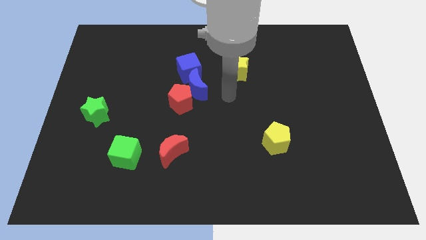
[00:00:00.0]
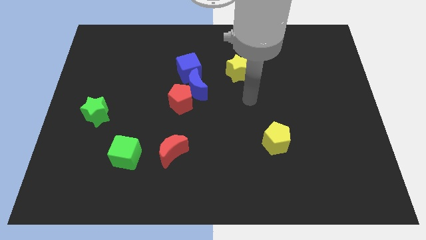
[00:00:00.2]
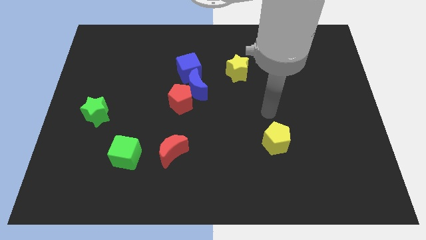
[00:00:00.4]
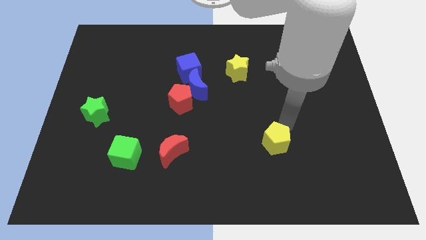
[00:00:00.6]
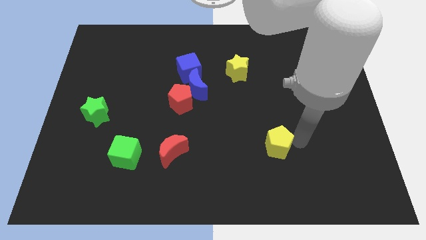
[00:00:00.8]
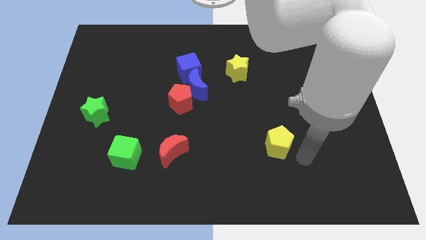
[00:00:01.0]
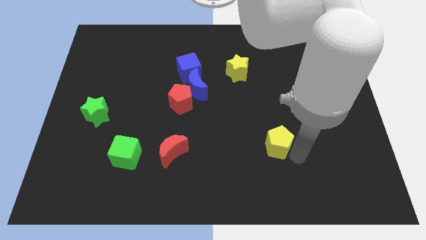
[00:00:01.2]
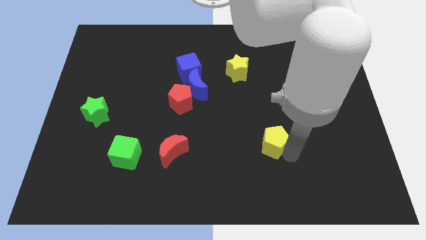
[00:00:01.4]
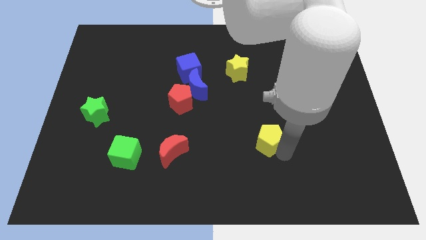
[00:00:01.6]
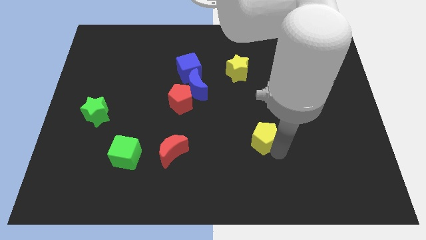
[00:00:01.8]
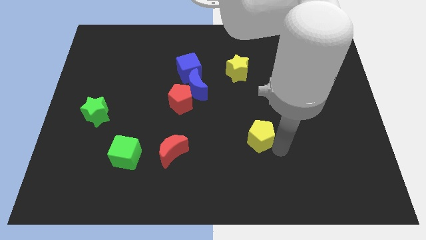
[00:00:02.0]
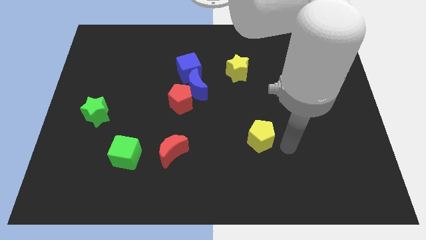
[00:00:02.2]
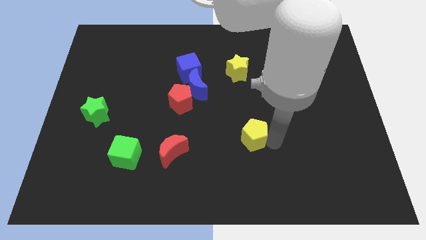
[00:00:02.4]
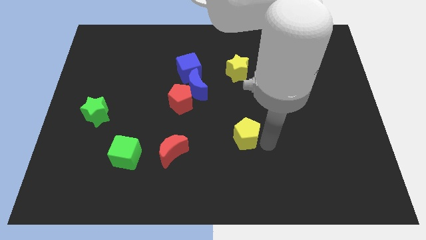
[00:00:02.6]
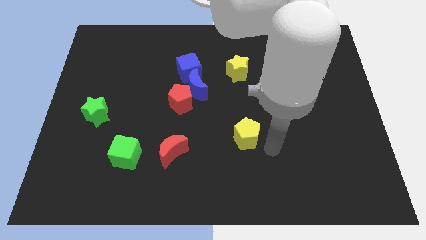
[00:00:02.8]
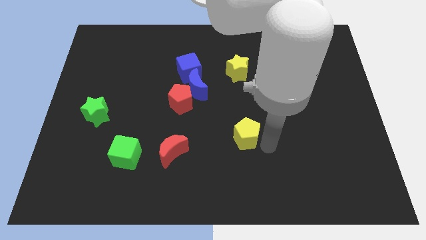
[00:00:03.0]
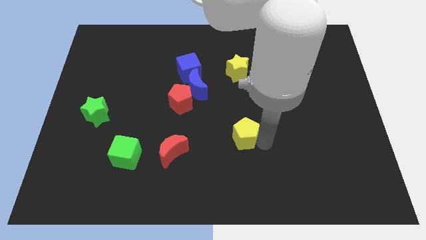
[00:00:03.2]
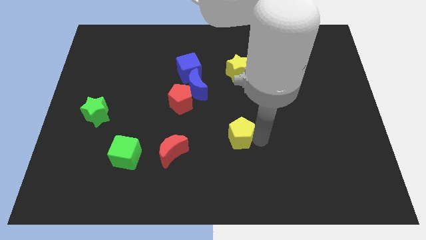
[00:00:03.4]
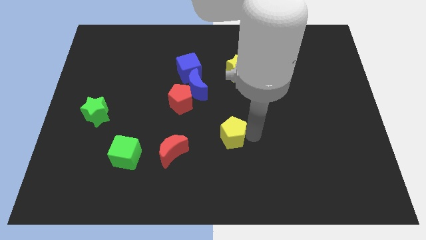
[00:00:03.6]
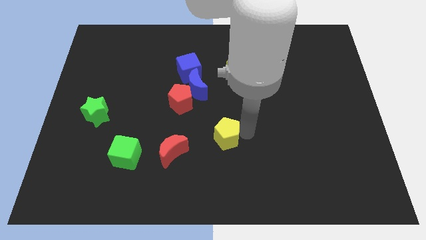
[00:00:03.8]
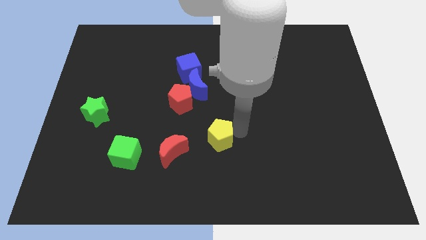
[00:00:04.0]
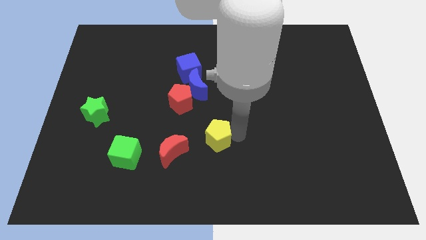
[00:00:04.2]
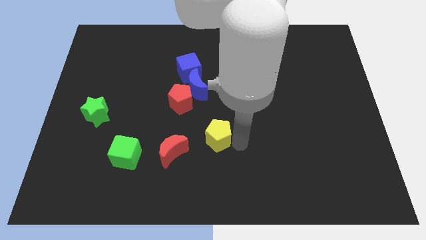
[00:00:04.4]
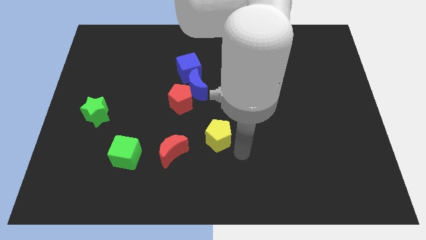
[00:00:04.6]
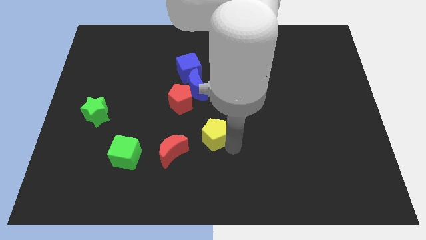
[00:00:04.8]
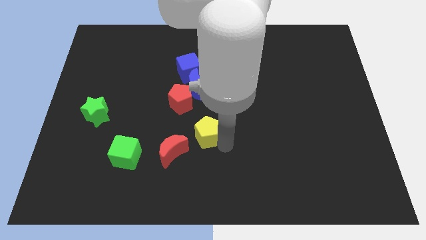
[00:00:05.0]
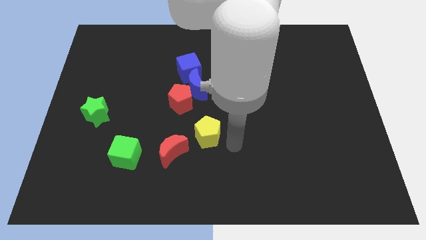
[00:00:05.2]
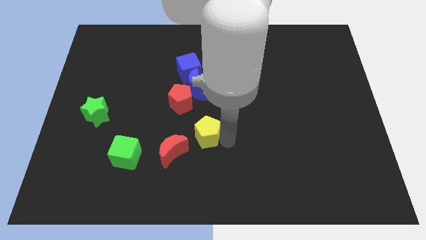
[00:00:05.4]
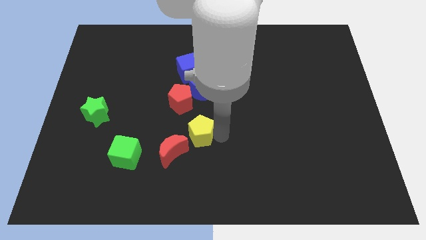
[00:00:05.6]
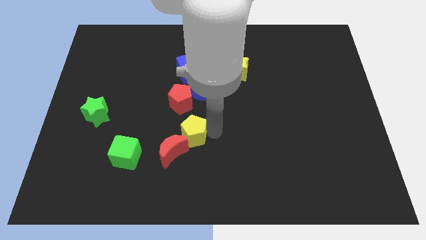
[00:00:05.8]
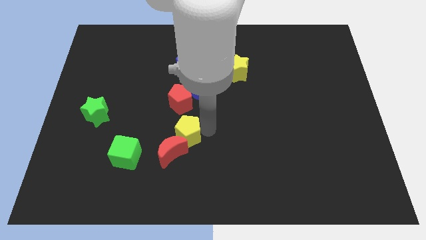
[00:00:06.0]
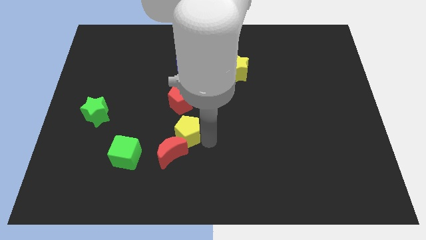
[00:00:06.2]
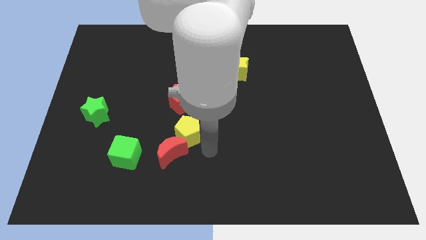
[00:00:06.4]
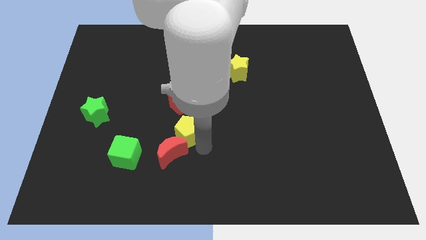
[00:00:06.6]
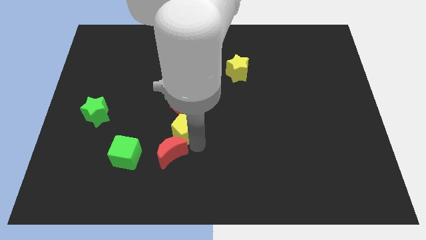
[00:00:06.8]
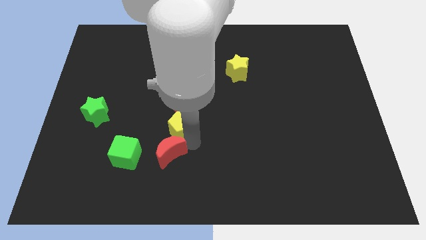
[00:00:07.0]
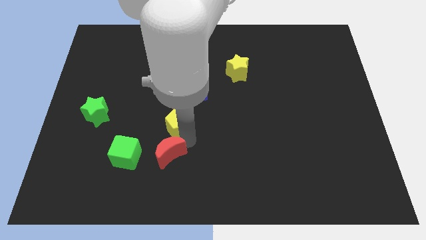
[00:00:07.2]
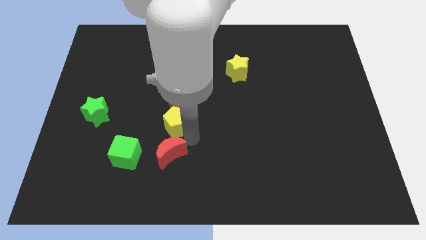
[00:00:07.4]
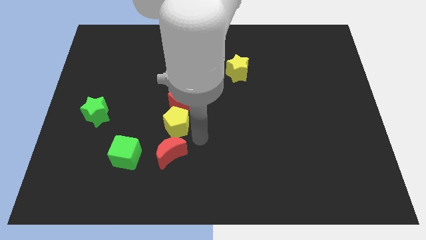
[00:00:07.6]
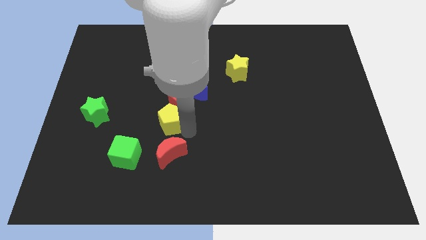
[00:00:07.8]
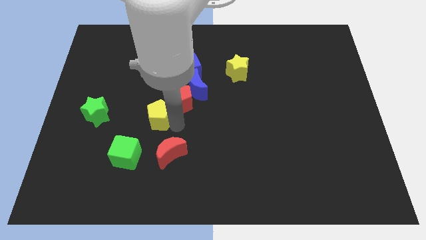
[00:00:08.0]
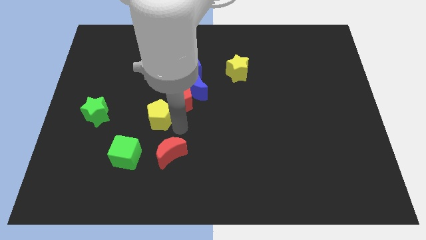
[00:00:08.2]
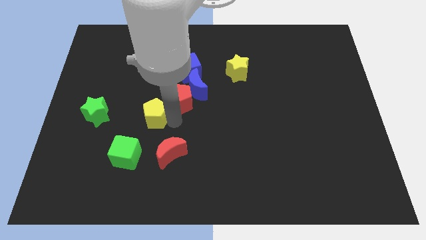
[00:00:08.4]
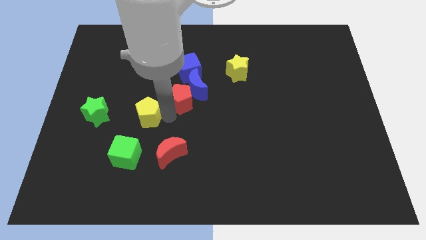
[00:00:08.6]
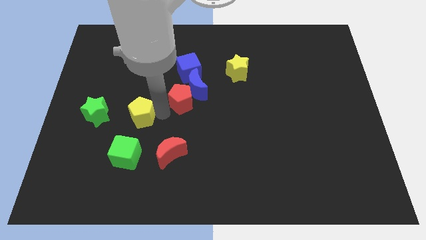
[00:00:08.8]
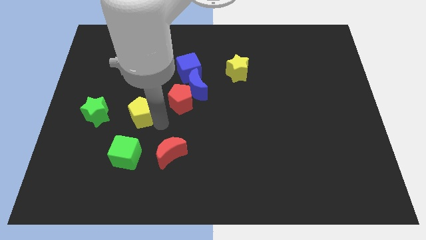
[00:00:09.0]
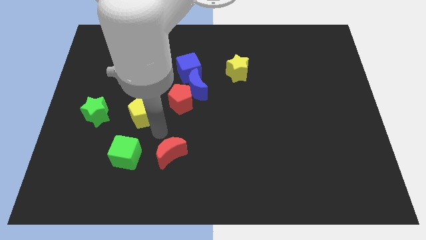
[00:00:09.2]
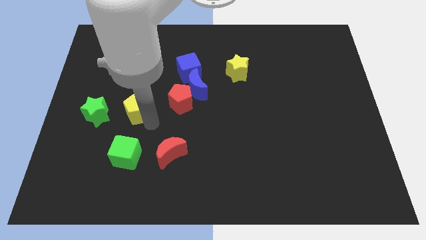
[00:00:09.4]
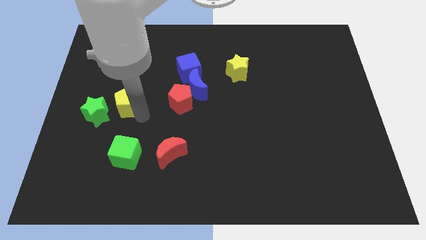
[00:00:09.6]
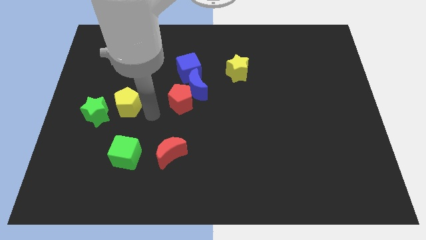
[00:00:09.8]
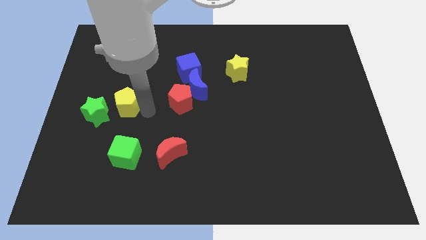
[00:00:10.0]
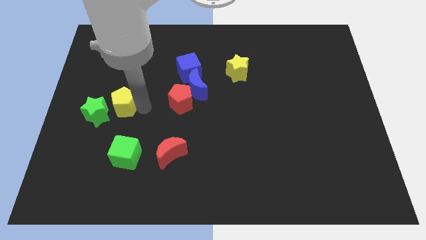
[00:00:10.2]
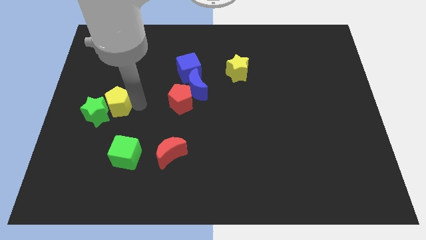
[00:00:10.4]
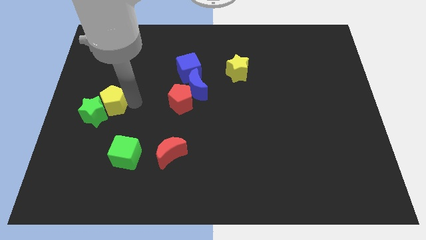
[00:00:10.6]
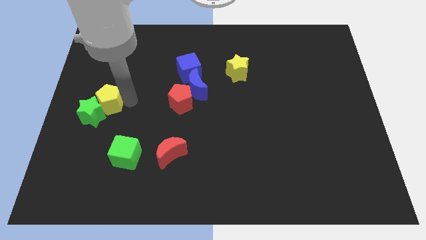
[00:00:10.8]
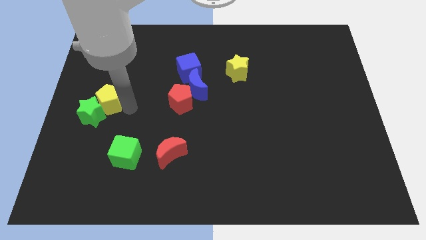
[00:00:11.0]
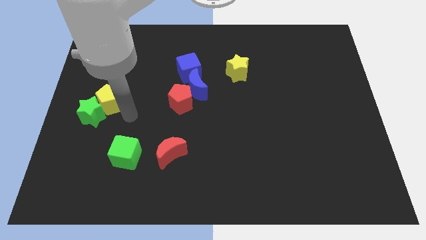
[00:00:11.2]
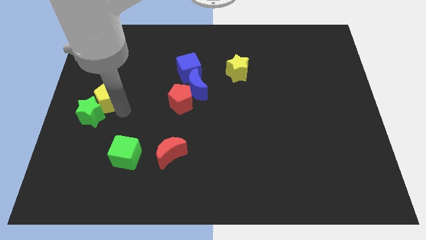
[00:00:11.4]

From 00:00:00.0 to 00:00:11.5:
push the yellow pentagon to the left side of the board

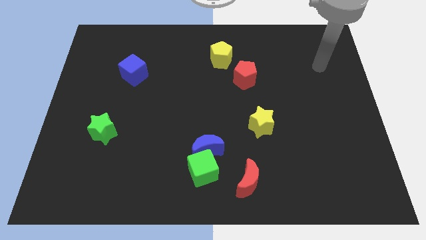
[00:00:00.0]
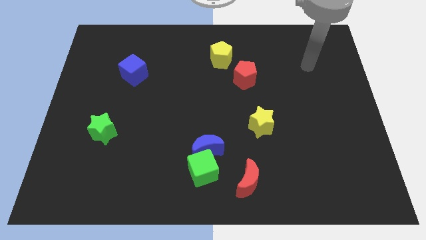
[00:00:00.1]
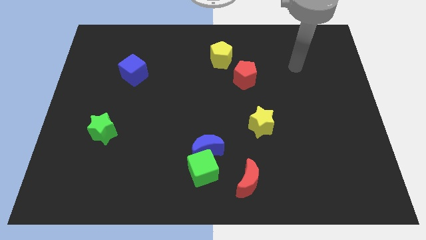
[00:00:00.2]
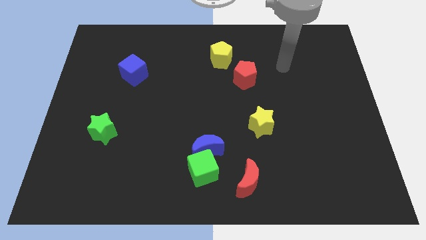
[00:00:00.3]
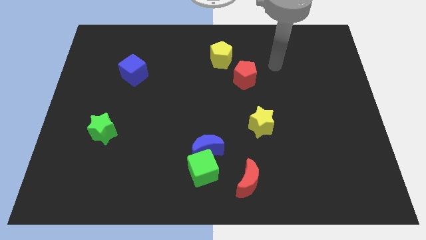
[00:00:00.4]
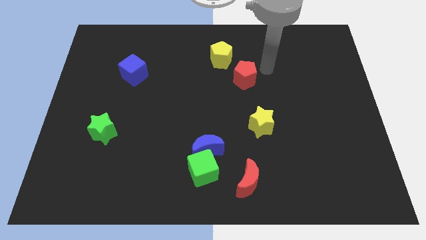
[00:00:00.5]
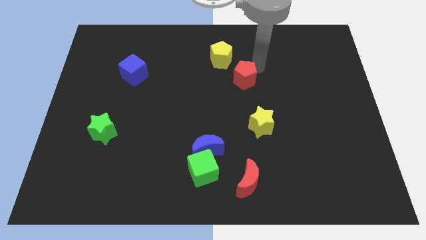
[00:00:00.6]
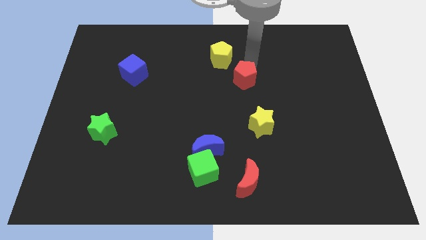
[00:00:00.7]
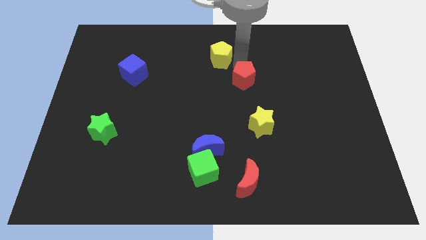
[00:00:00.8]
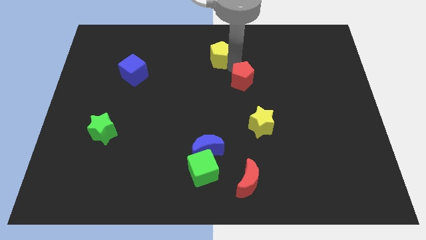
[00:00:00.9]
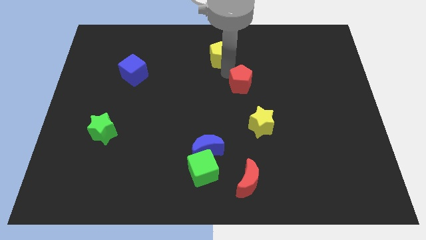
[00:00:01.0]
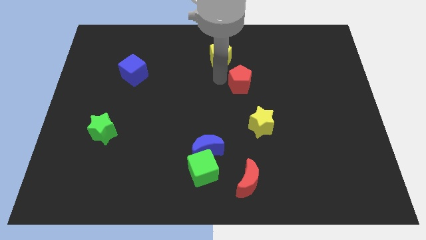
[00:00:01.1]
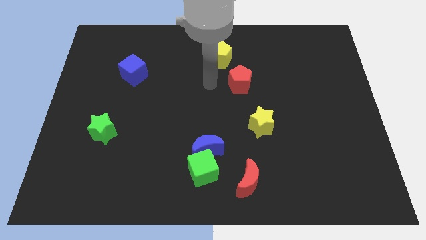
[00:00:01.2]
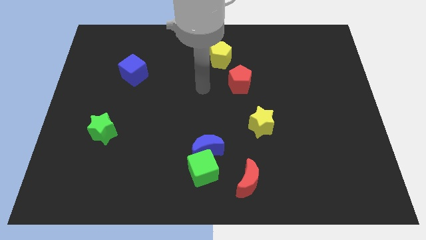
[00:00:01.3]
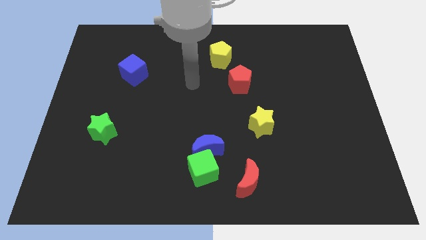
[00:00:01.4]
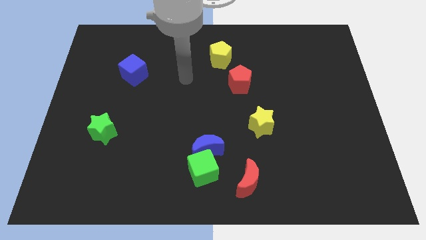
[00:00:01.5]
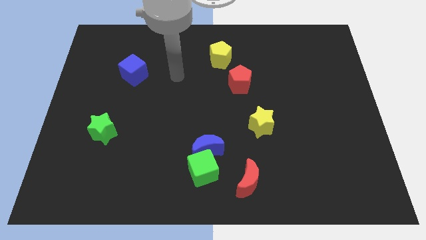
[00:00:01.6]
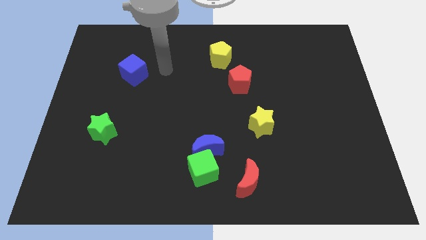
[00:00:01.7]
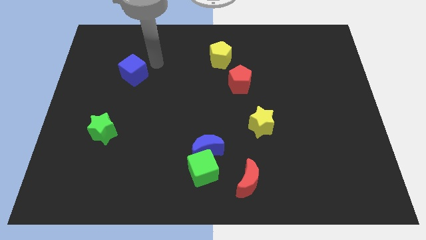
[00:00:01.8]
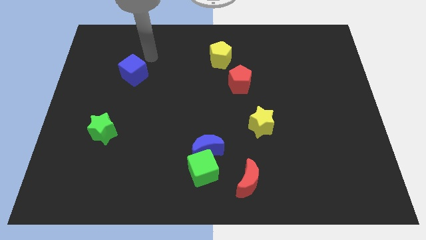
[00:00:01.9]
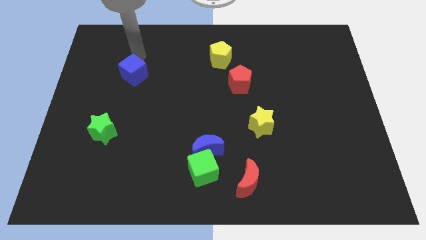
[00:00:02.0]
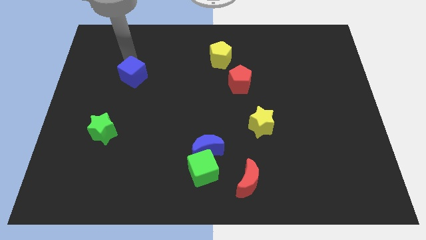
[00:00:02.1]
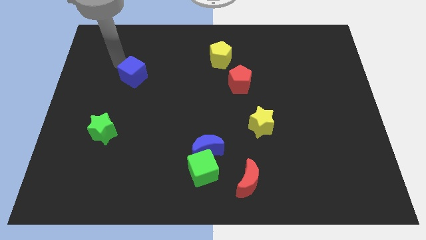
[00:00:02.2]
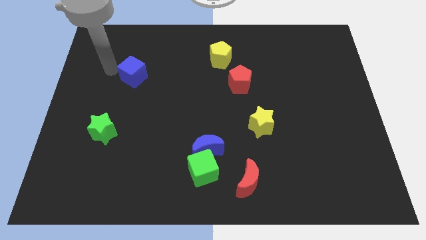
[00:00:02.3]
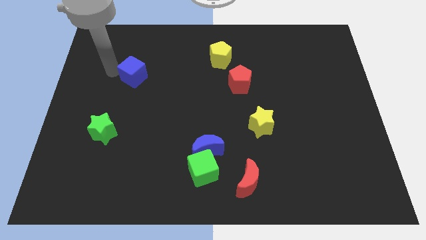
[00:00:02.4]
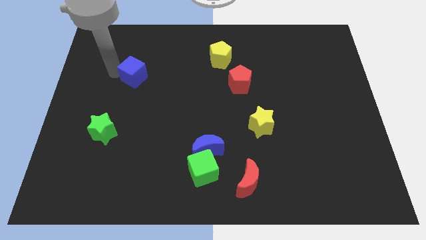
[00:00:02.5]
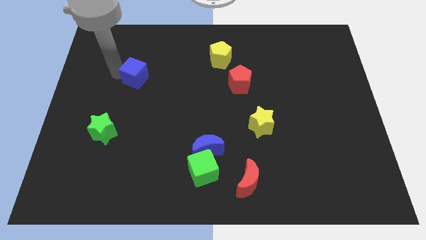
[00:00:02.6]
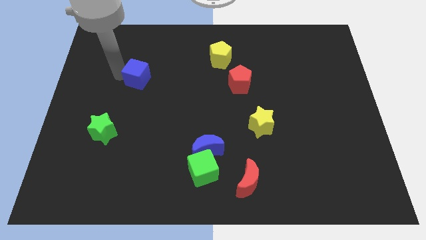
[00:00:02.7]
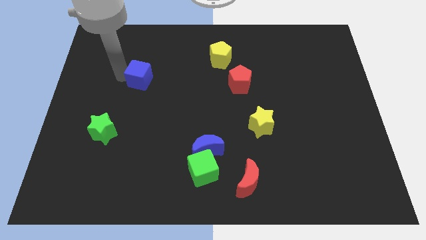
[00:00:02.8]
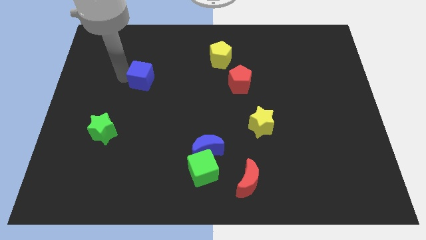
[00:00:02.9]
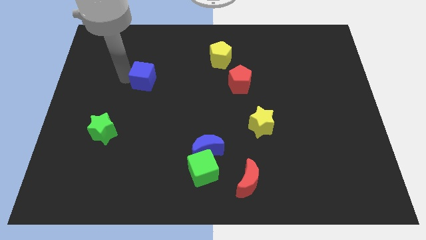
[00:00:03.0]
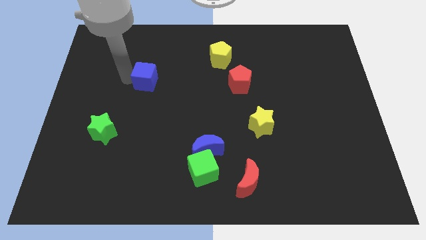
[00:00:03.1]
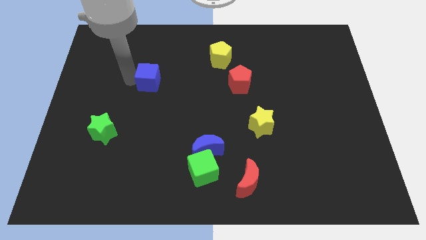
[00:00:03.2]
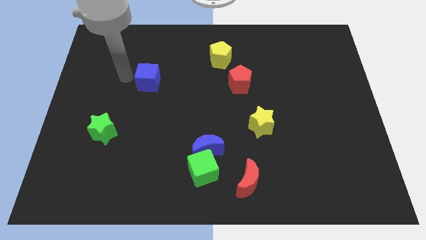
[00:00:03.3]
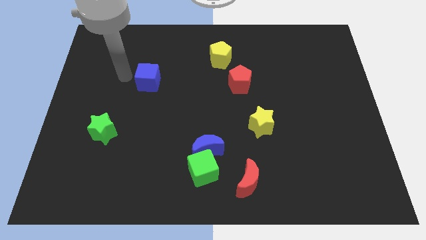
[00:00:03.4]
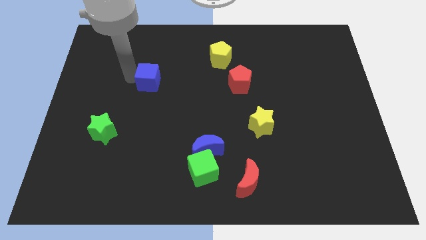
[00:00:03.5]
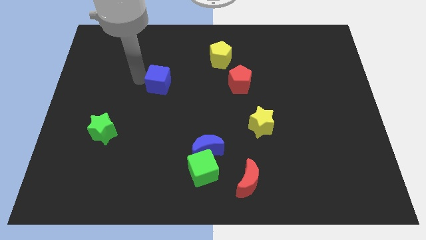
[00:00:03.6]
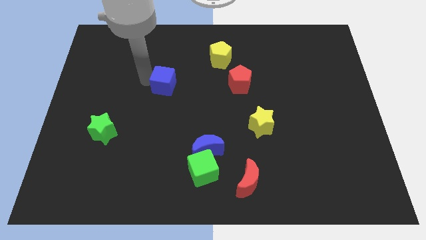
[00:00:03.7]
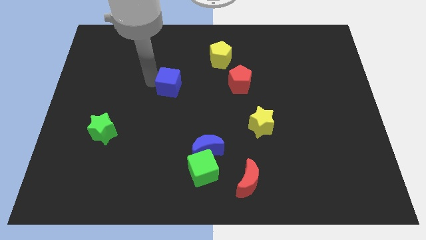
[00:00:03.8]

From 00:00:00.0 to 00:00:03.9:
push the blue cube to the middle
